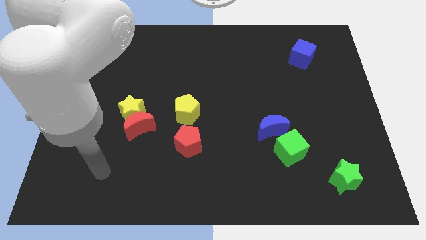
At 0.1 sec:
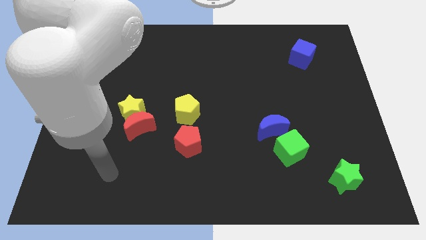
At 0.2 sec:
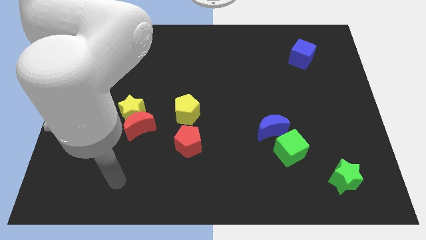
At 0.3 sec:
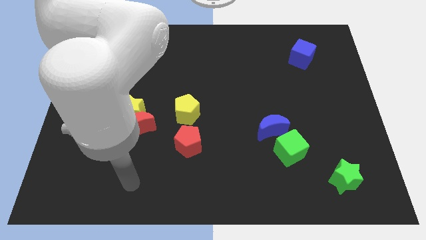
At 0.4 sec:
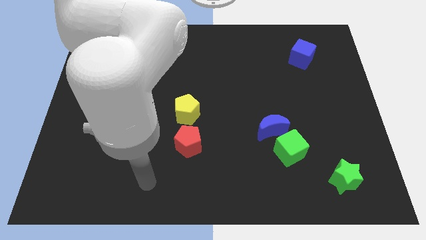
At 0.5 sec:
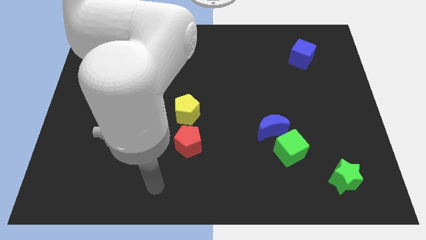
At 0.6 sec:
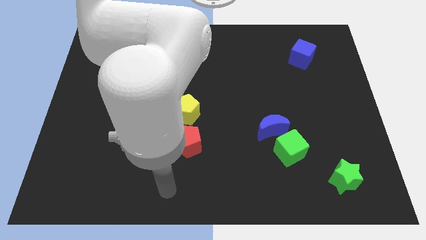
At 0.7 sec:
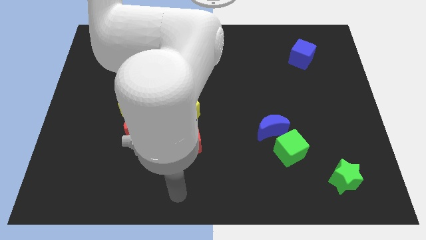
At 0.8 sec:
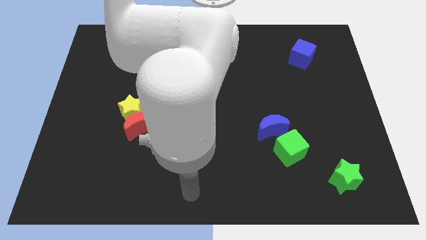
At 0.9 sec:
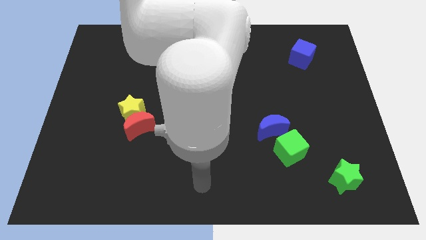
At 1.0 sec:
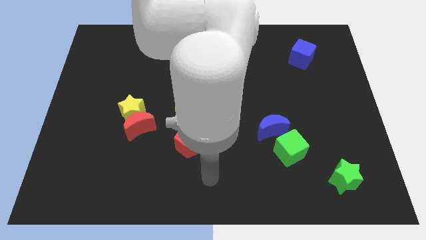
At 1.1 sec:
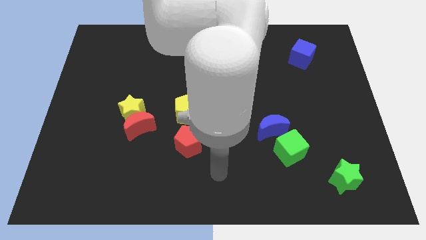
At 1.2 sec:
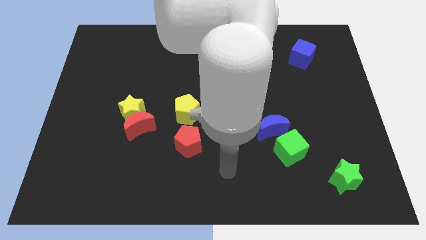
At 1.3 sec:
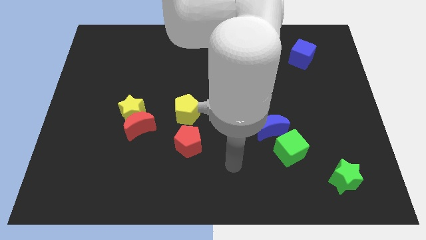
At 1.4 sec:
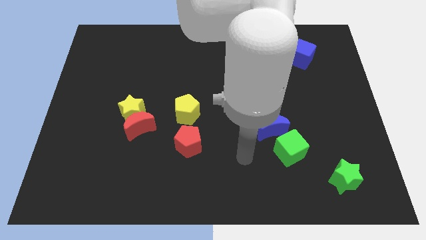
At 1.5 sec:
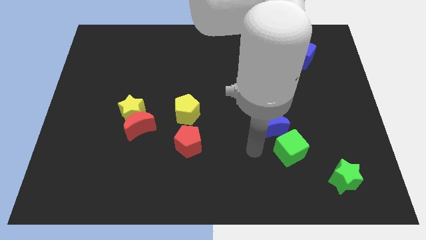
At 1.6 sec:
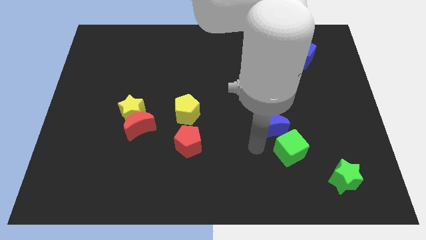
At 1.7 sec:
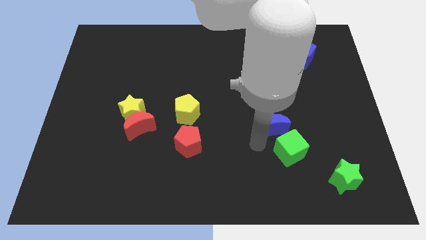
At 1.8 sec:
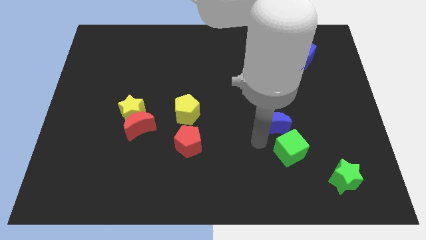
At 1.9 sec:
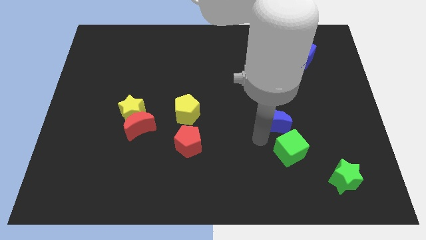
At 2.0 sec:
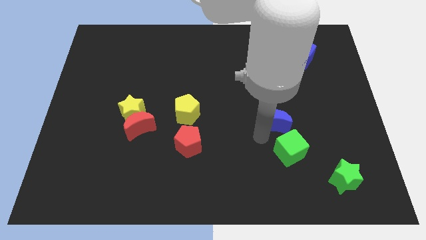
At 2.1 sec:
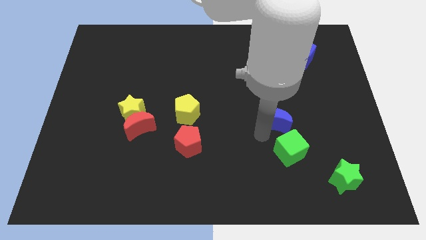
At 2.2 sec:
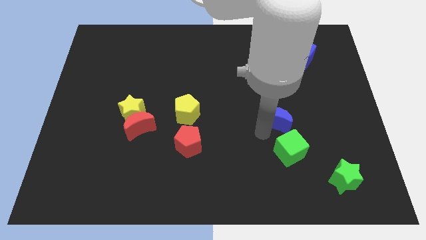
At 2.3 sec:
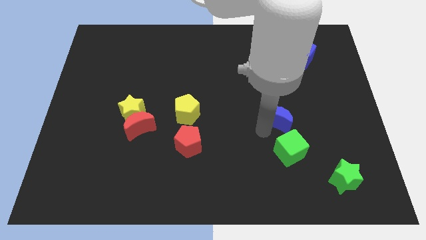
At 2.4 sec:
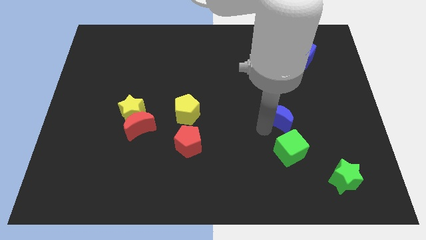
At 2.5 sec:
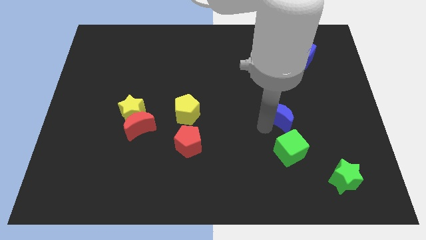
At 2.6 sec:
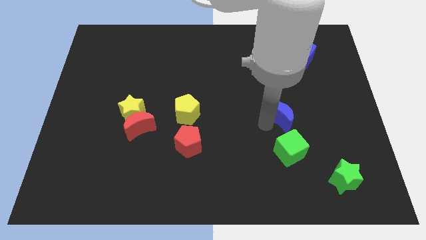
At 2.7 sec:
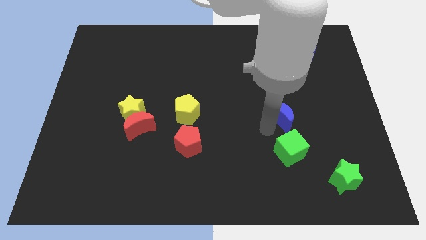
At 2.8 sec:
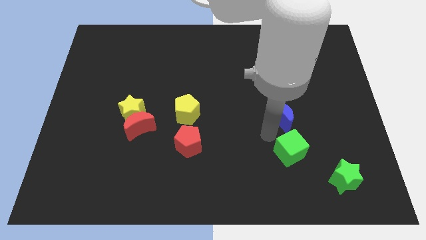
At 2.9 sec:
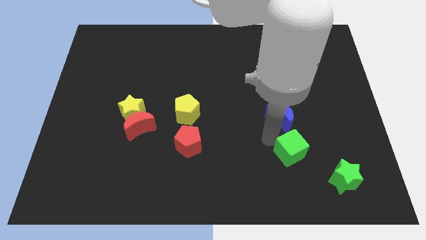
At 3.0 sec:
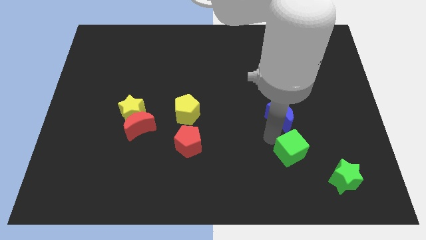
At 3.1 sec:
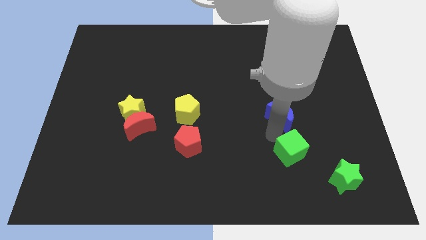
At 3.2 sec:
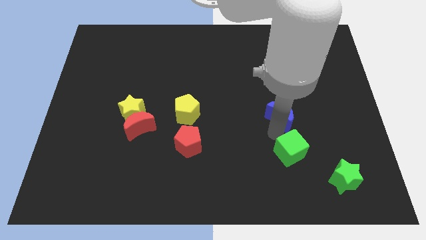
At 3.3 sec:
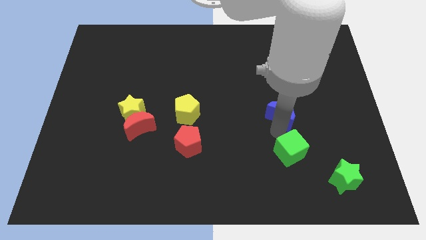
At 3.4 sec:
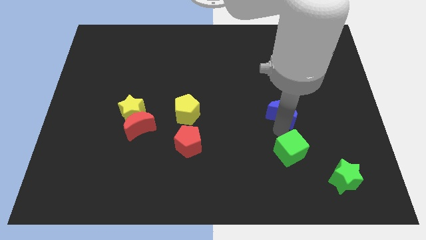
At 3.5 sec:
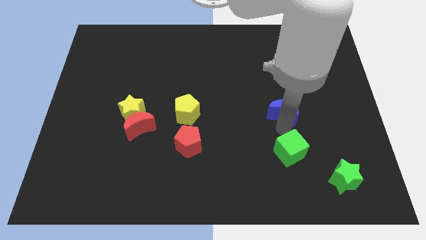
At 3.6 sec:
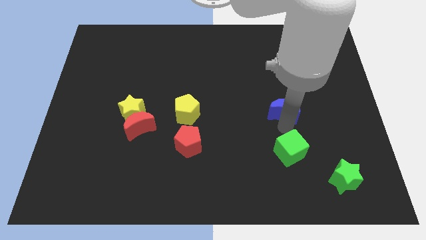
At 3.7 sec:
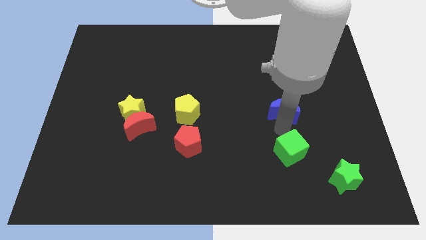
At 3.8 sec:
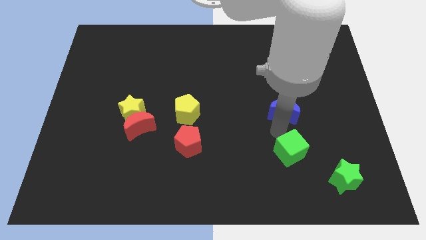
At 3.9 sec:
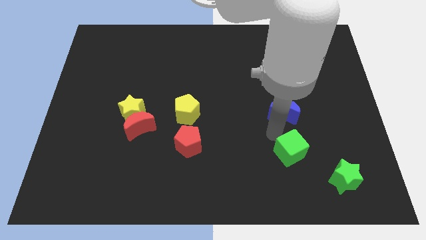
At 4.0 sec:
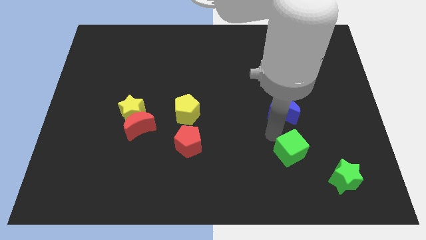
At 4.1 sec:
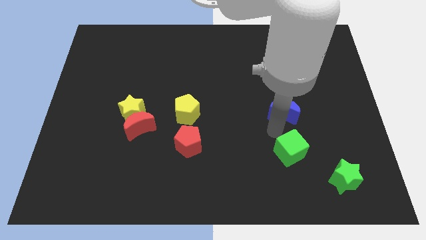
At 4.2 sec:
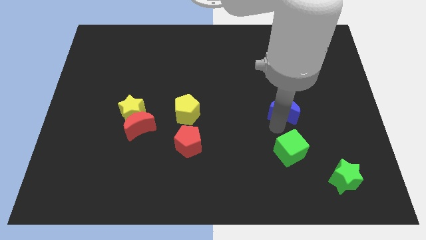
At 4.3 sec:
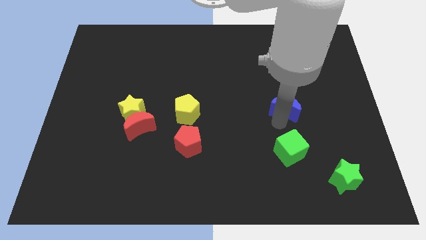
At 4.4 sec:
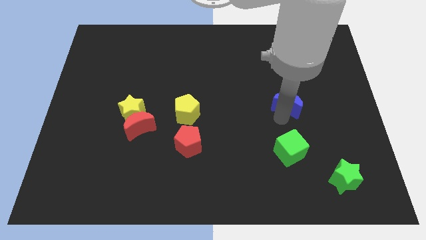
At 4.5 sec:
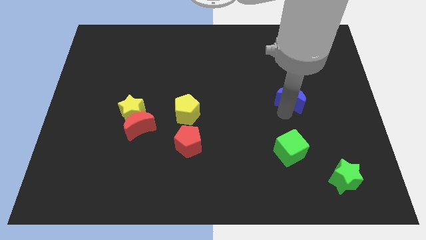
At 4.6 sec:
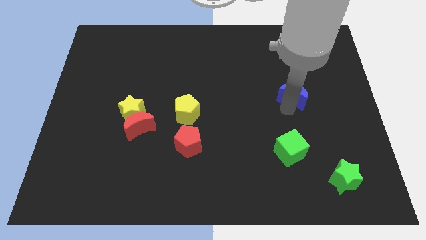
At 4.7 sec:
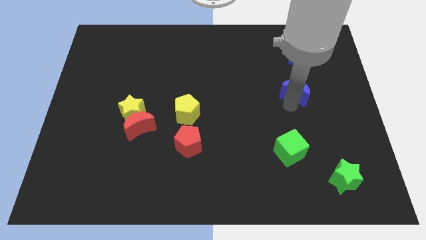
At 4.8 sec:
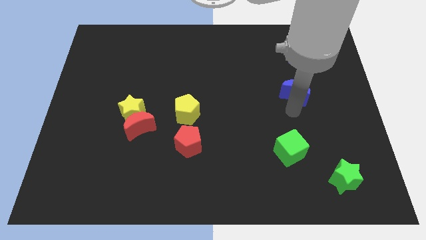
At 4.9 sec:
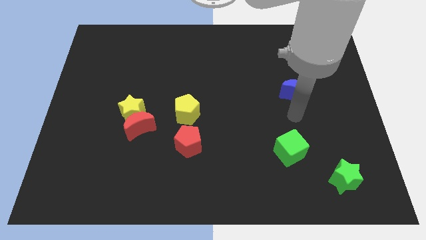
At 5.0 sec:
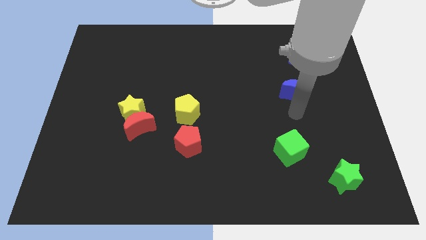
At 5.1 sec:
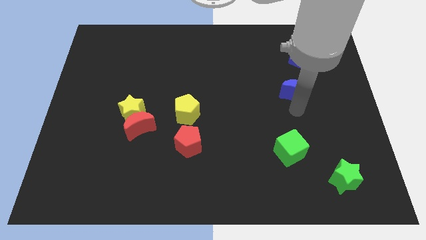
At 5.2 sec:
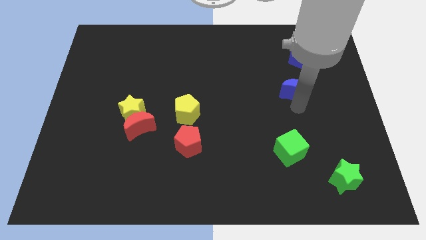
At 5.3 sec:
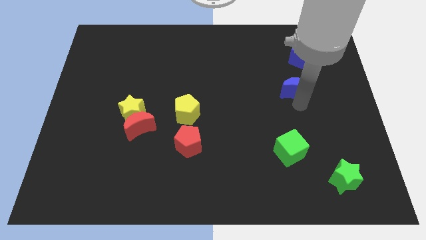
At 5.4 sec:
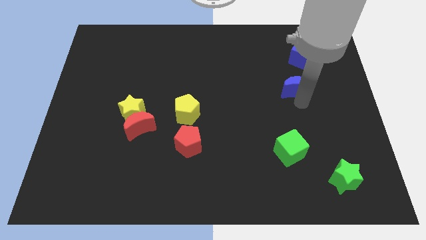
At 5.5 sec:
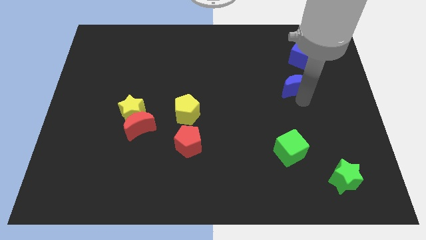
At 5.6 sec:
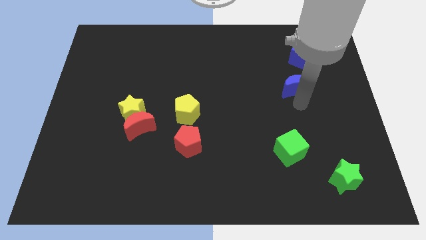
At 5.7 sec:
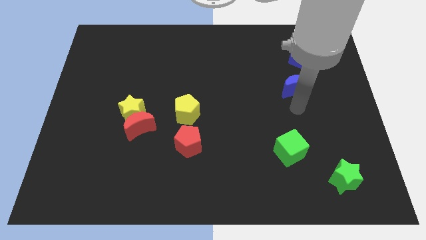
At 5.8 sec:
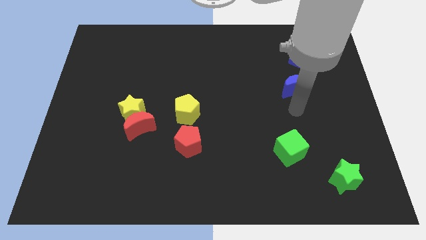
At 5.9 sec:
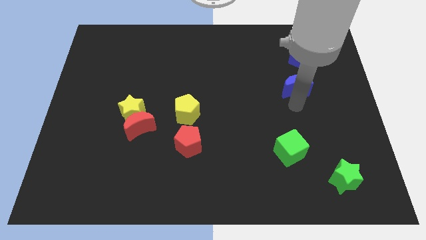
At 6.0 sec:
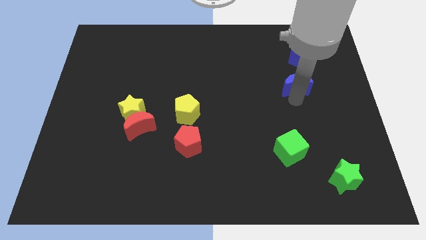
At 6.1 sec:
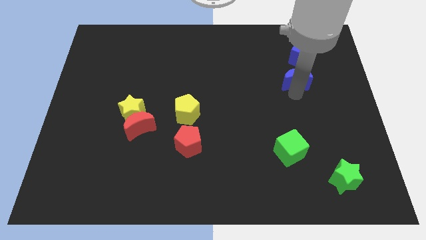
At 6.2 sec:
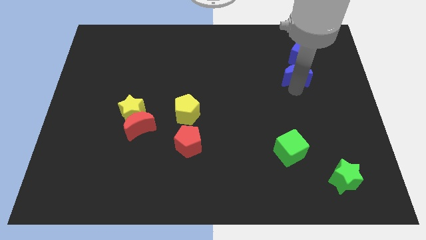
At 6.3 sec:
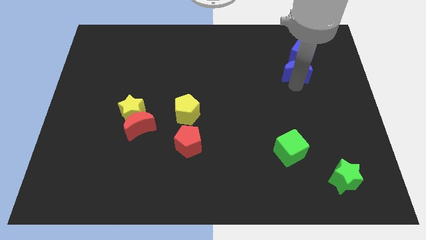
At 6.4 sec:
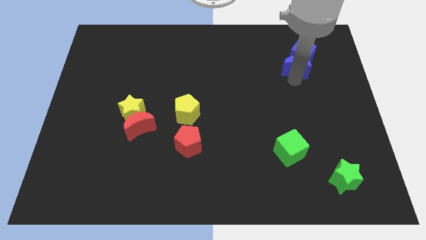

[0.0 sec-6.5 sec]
push the blue moon to the blue cube

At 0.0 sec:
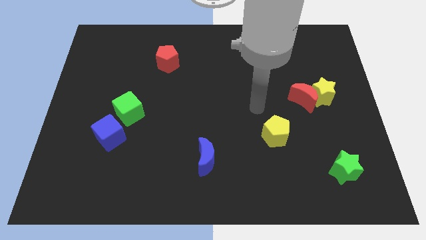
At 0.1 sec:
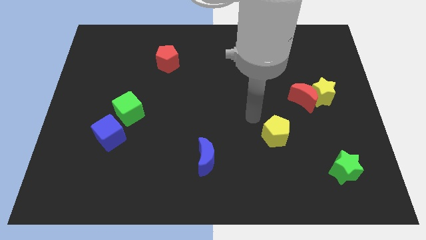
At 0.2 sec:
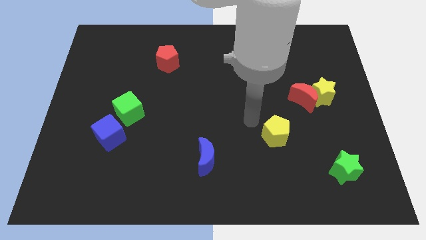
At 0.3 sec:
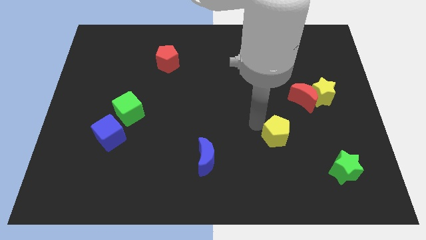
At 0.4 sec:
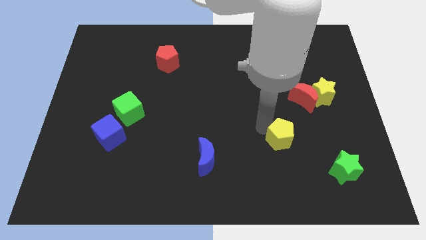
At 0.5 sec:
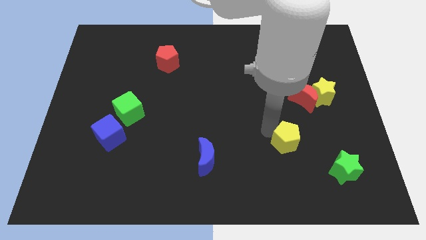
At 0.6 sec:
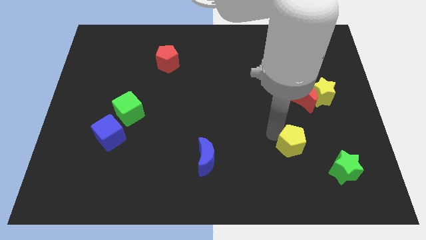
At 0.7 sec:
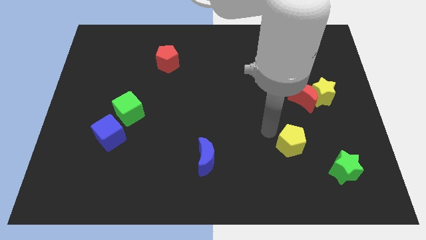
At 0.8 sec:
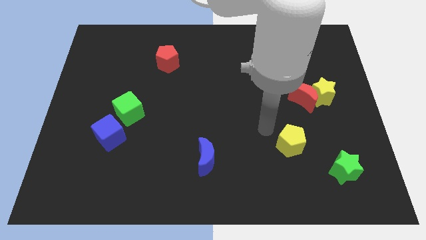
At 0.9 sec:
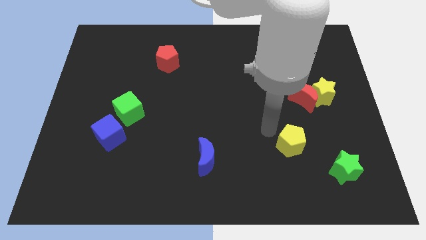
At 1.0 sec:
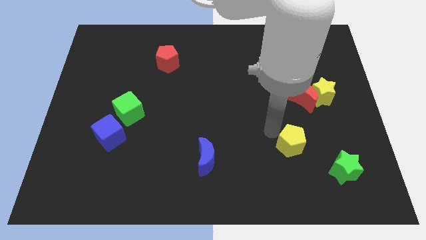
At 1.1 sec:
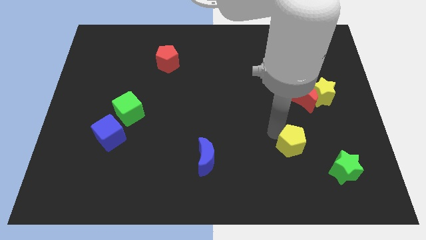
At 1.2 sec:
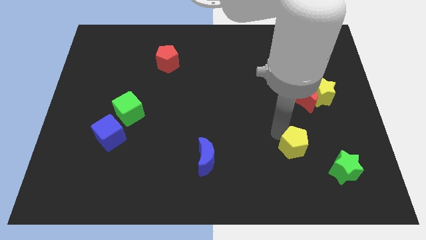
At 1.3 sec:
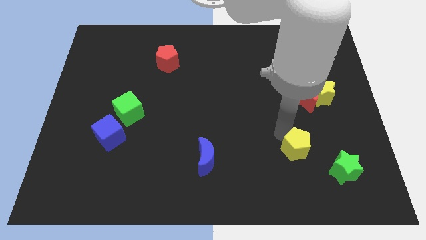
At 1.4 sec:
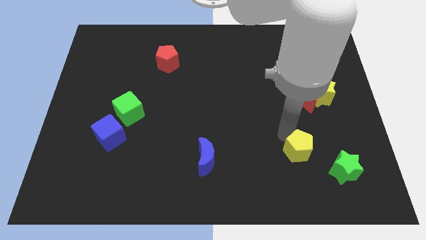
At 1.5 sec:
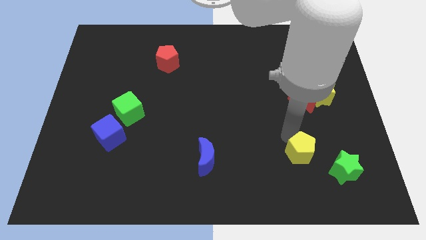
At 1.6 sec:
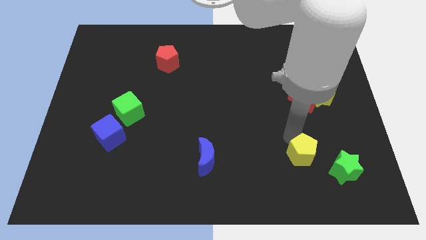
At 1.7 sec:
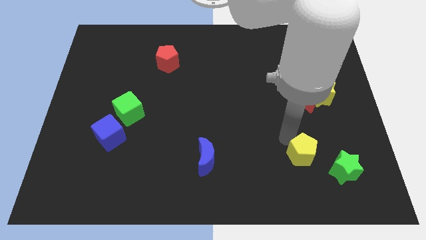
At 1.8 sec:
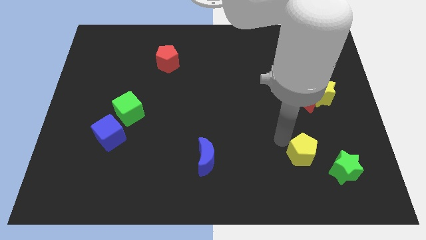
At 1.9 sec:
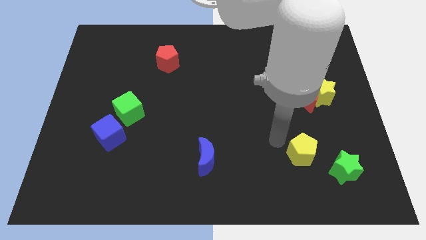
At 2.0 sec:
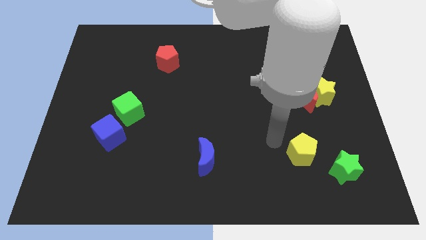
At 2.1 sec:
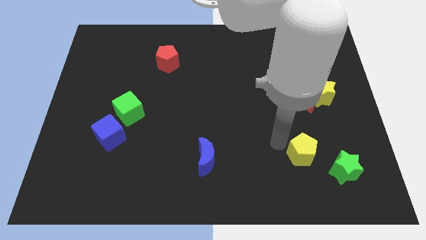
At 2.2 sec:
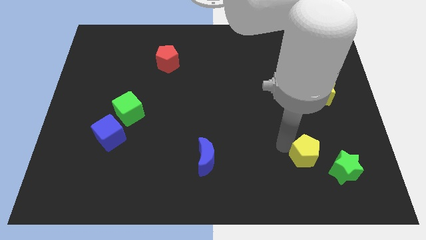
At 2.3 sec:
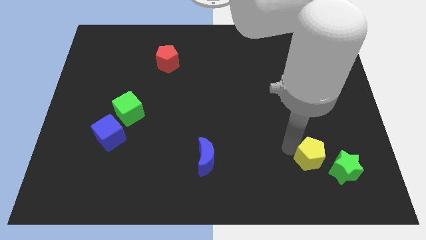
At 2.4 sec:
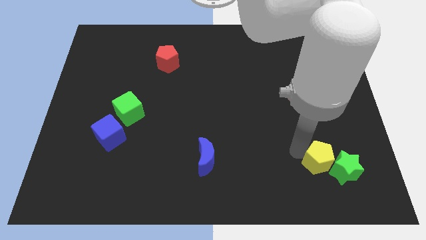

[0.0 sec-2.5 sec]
put the yellow pentagon next to the green star
